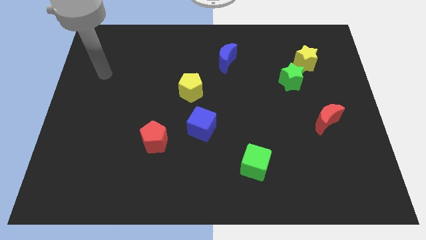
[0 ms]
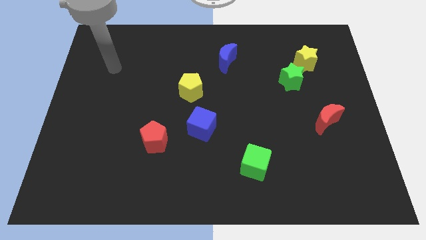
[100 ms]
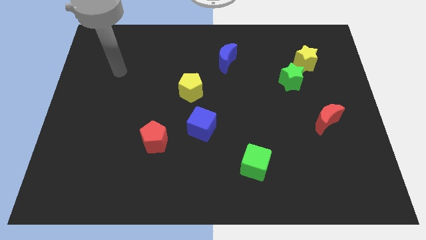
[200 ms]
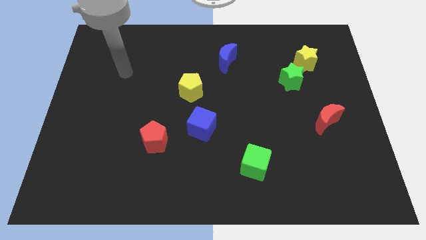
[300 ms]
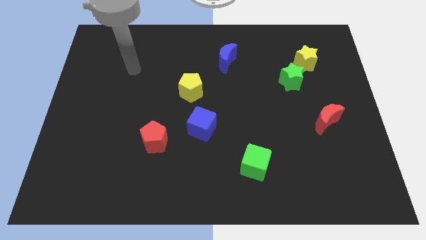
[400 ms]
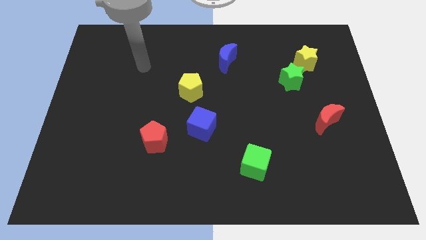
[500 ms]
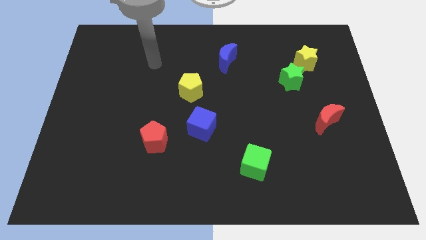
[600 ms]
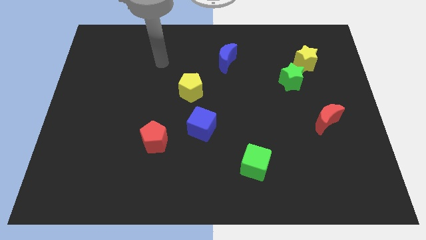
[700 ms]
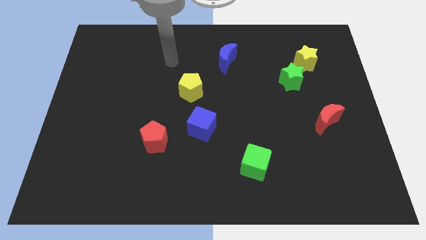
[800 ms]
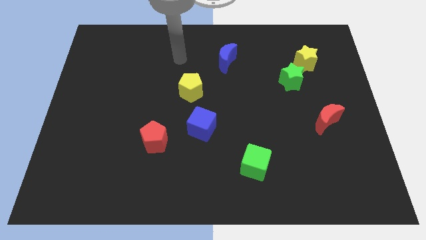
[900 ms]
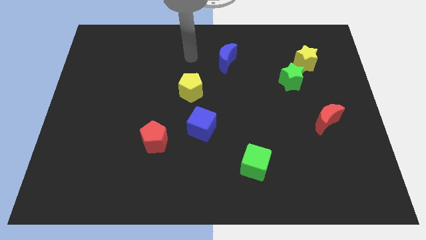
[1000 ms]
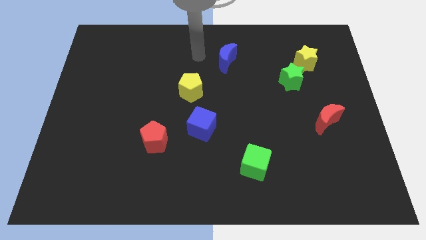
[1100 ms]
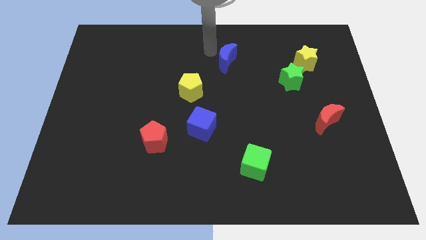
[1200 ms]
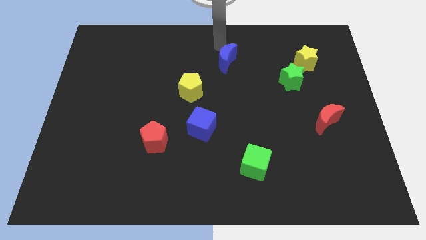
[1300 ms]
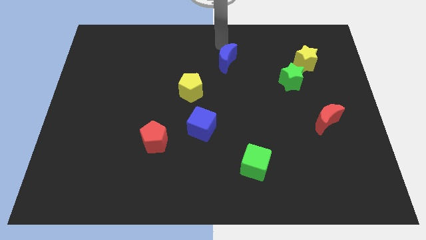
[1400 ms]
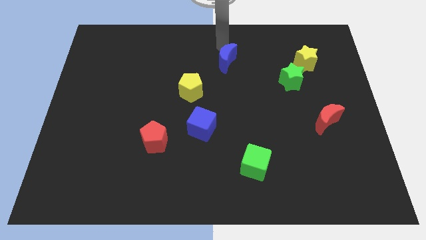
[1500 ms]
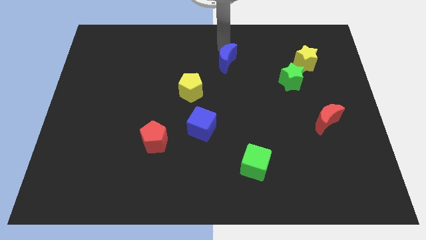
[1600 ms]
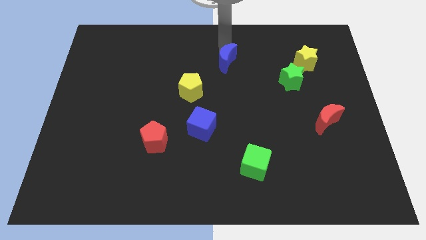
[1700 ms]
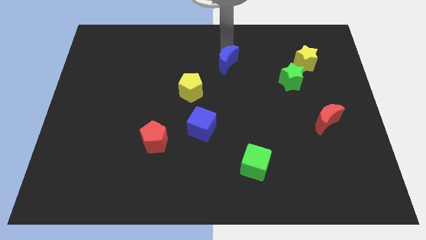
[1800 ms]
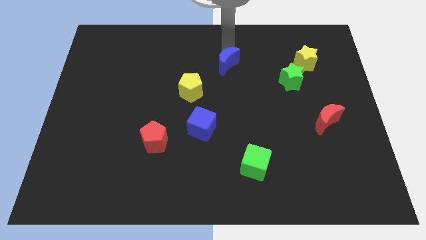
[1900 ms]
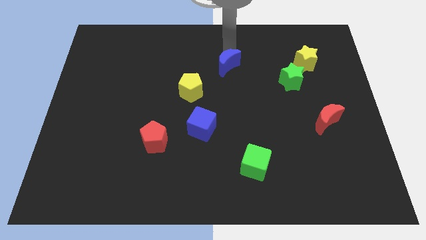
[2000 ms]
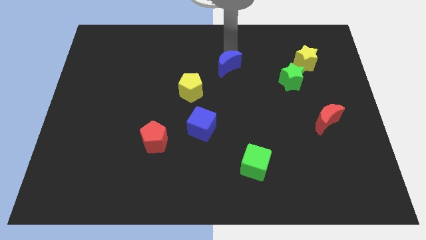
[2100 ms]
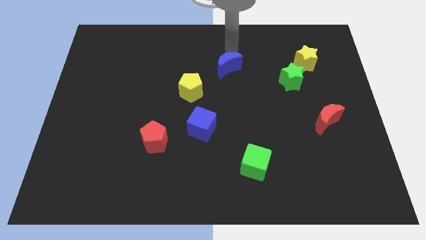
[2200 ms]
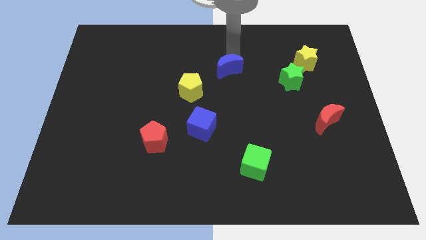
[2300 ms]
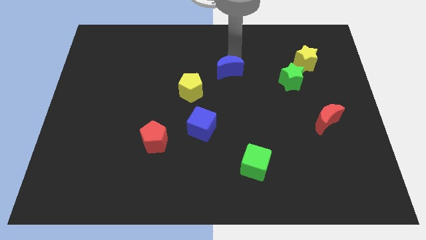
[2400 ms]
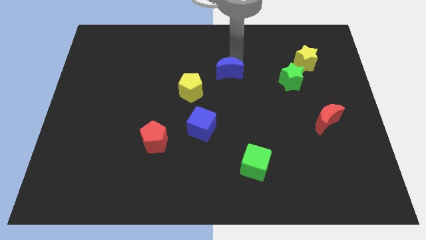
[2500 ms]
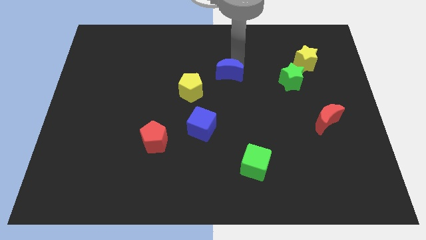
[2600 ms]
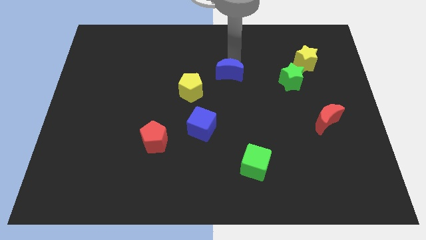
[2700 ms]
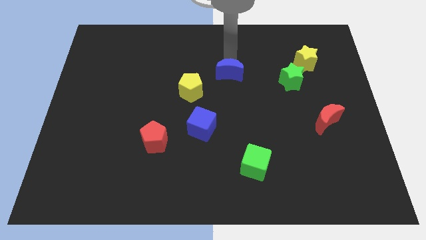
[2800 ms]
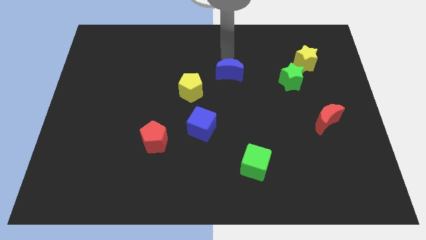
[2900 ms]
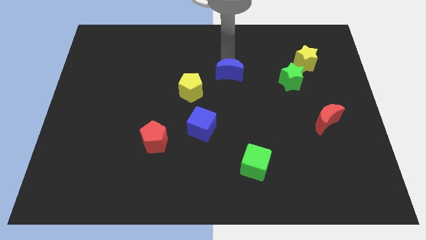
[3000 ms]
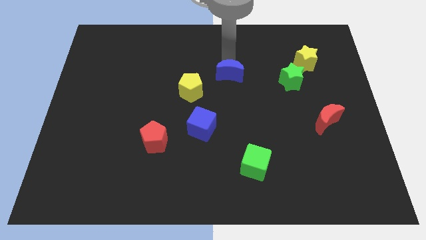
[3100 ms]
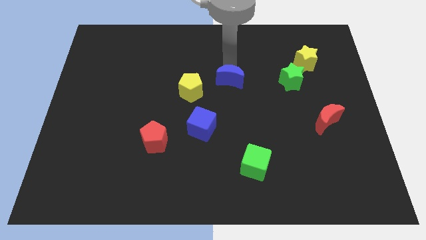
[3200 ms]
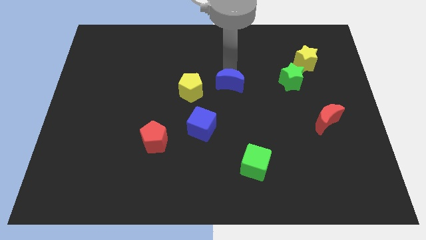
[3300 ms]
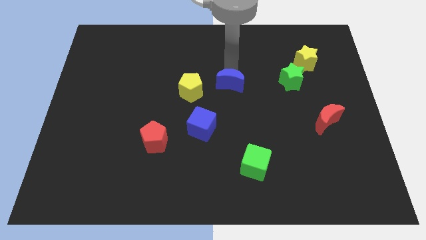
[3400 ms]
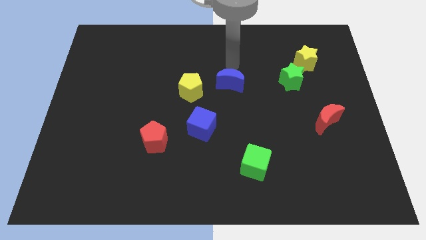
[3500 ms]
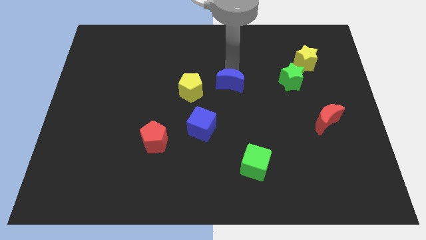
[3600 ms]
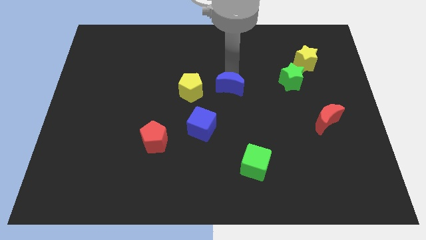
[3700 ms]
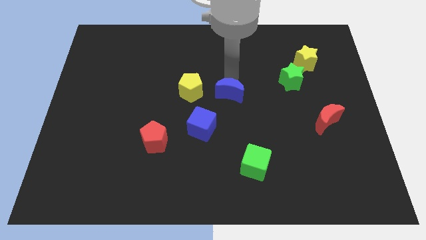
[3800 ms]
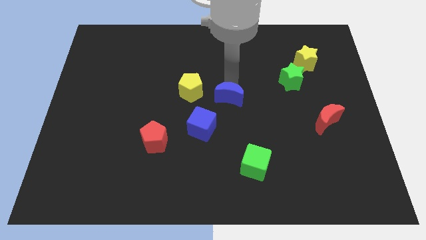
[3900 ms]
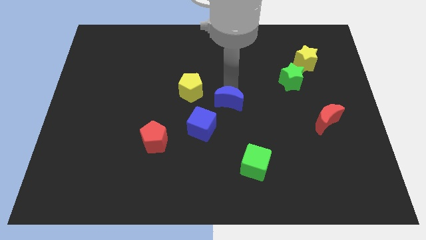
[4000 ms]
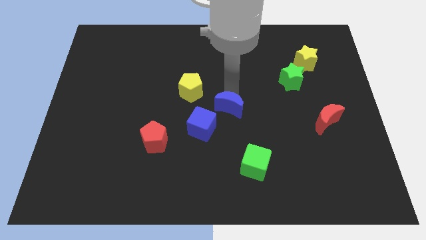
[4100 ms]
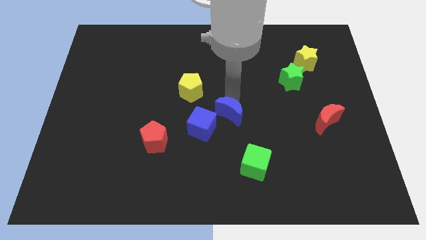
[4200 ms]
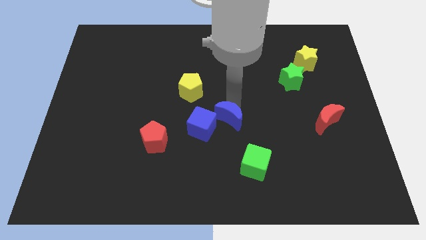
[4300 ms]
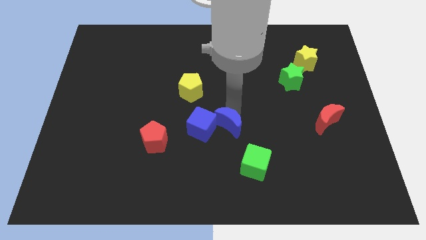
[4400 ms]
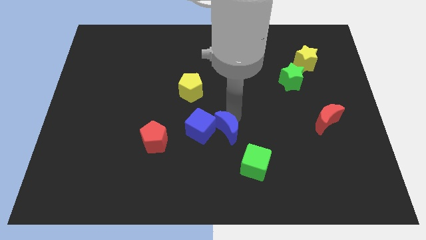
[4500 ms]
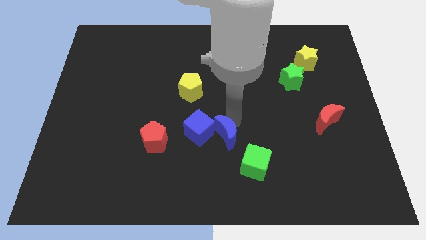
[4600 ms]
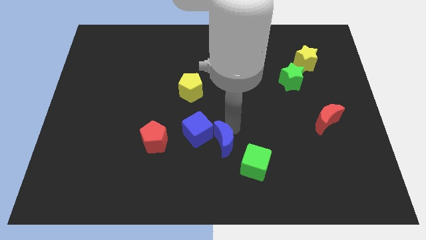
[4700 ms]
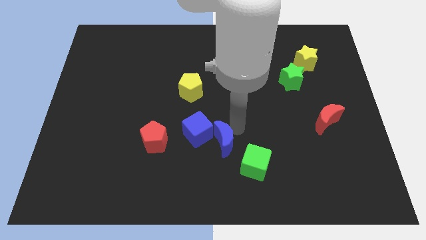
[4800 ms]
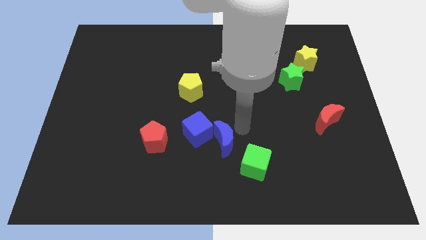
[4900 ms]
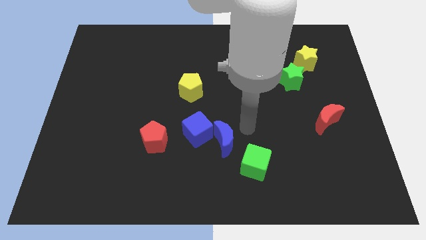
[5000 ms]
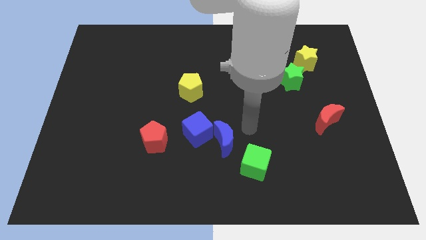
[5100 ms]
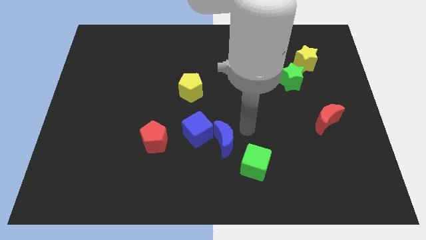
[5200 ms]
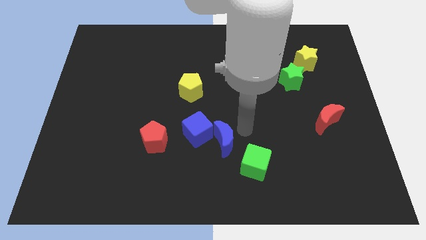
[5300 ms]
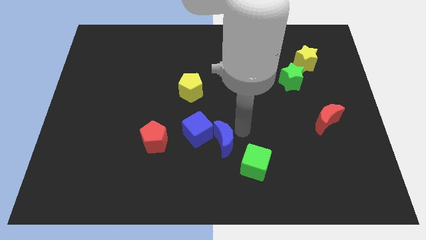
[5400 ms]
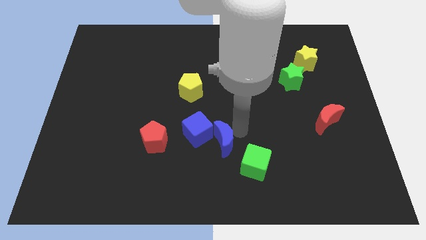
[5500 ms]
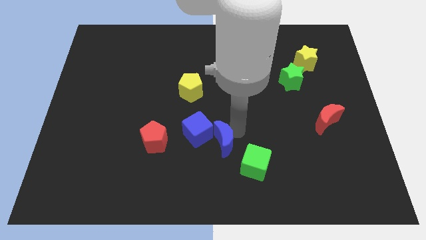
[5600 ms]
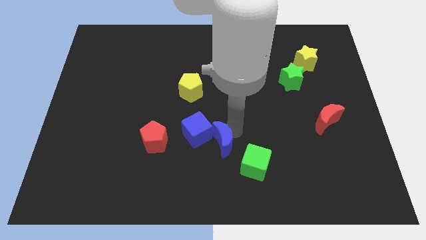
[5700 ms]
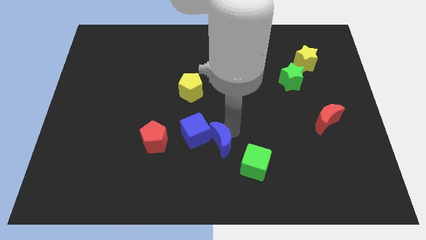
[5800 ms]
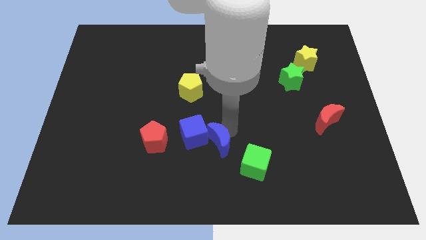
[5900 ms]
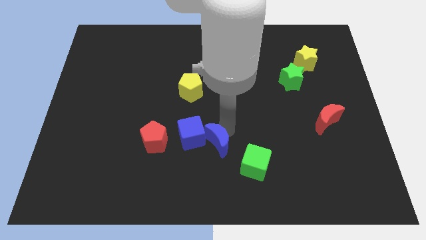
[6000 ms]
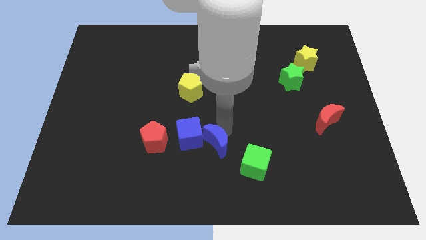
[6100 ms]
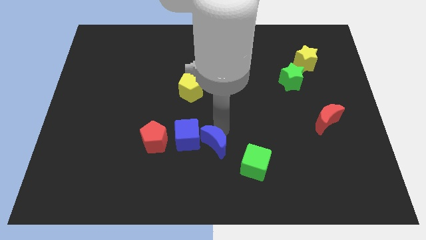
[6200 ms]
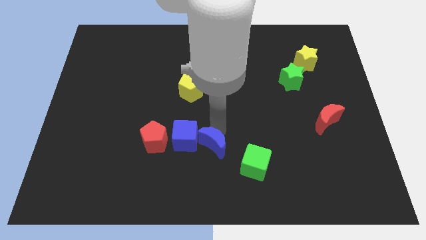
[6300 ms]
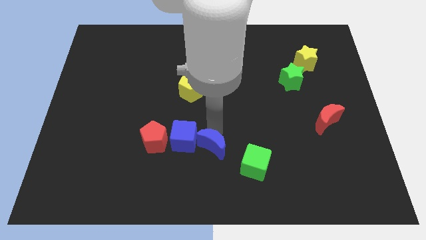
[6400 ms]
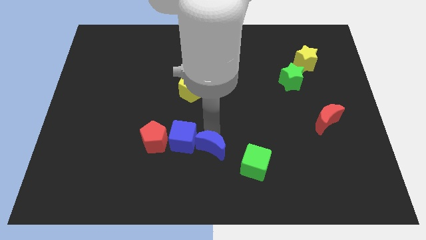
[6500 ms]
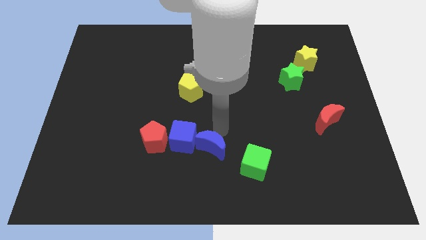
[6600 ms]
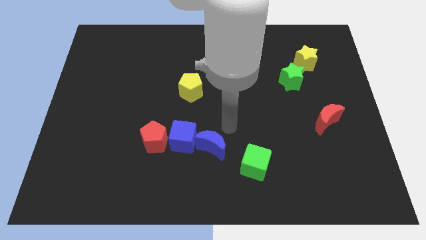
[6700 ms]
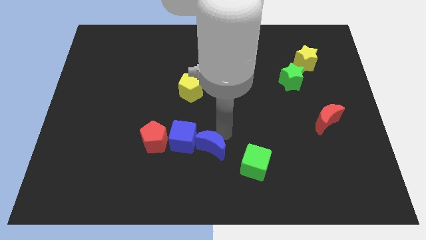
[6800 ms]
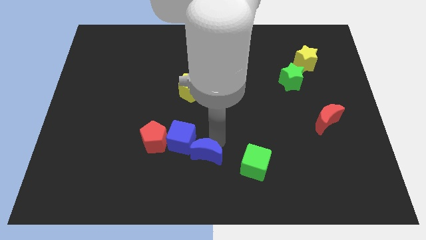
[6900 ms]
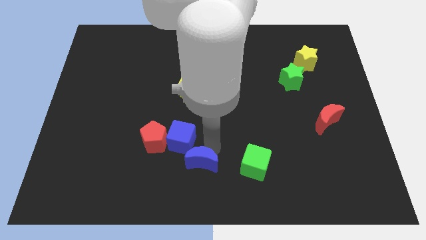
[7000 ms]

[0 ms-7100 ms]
slide the blue moon to the bottom side of the blue cube
